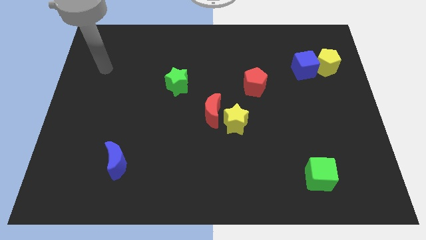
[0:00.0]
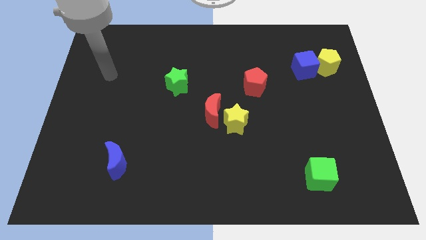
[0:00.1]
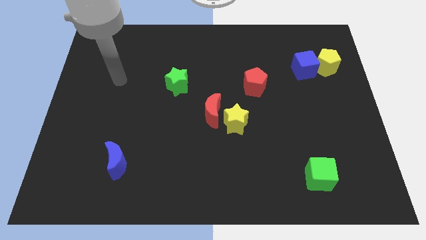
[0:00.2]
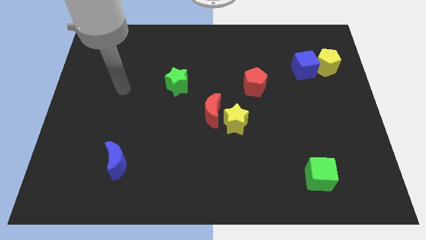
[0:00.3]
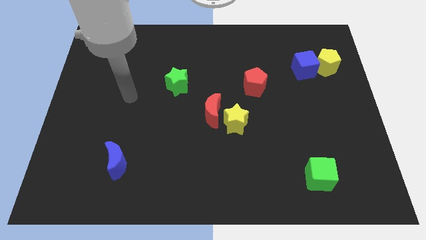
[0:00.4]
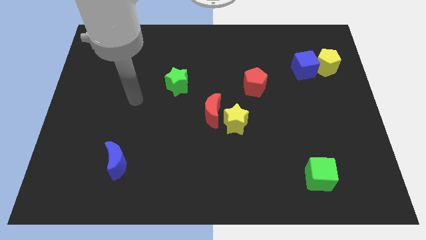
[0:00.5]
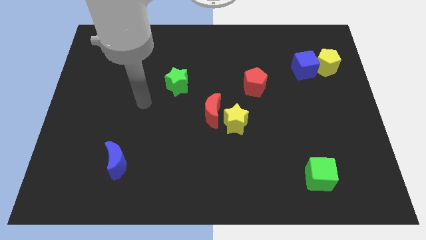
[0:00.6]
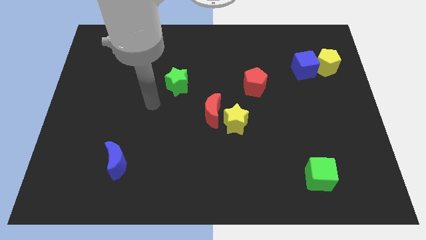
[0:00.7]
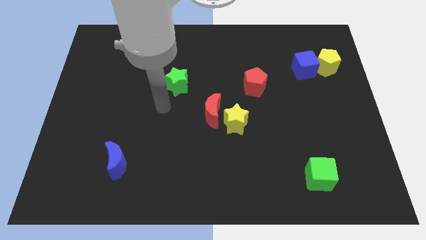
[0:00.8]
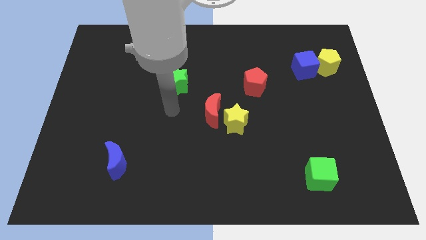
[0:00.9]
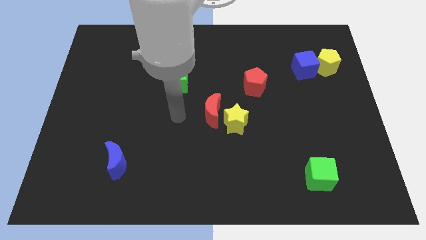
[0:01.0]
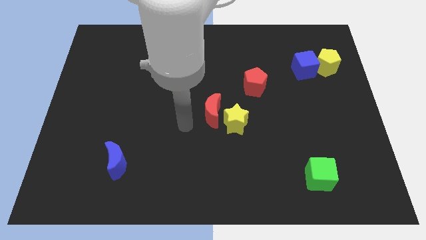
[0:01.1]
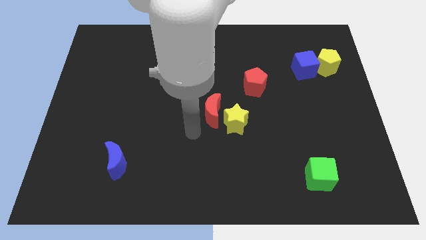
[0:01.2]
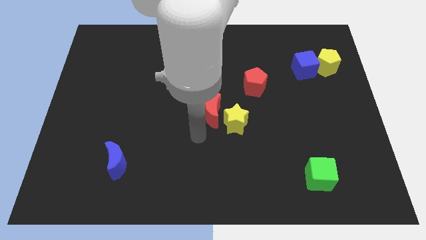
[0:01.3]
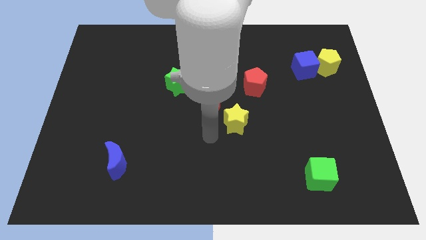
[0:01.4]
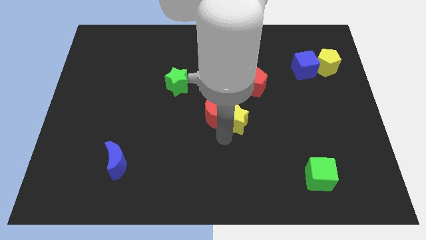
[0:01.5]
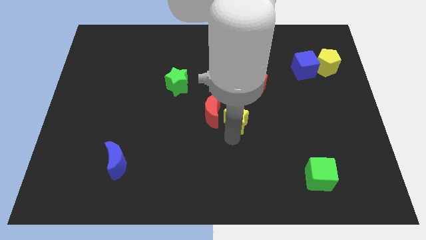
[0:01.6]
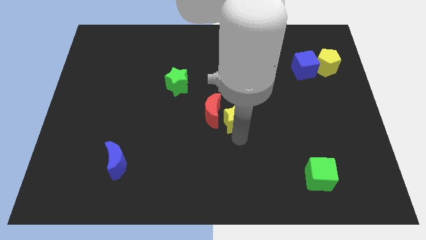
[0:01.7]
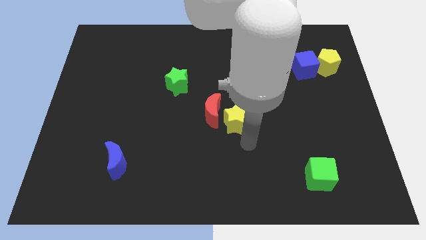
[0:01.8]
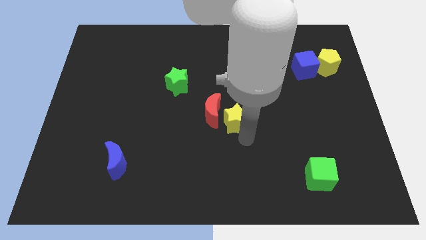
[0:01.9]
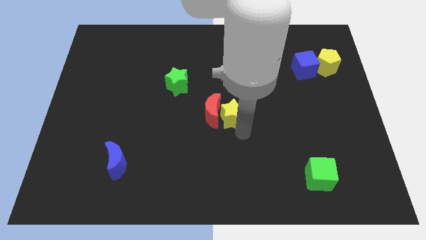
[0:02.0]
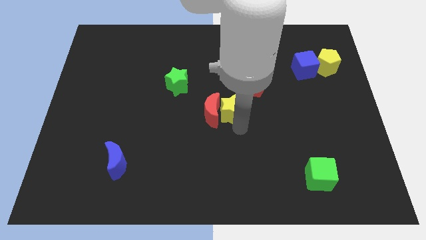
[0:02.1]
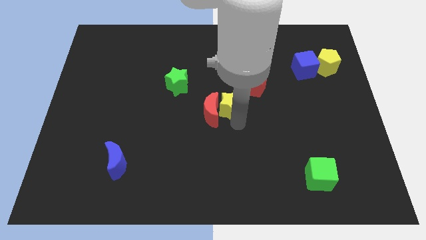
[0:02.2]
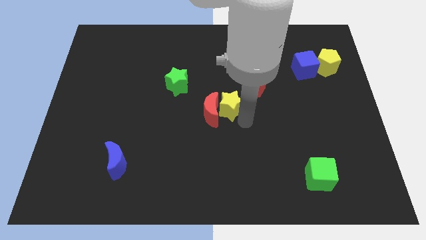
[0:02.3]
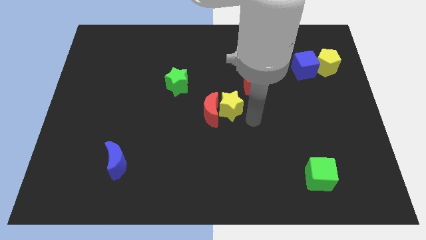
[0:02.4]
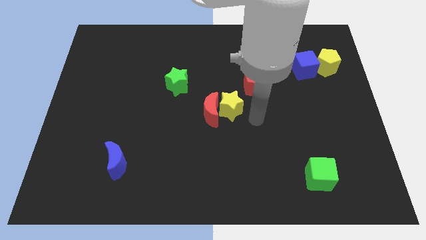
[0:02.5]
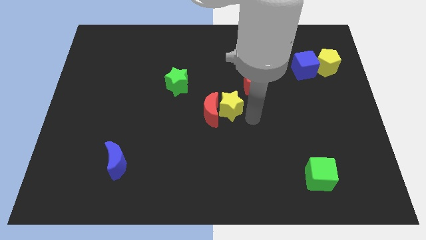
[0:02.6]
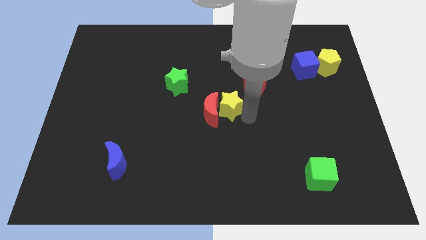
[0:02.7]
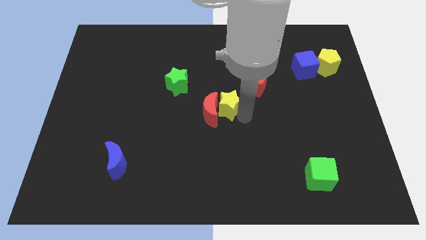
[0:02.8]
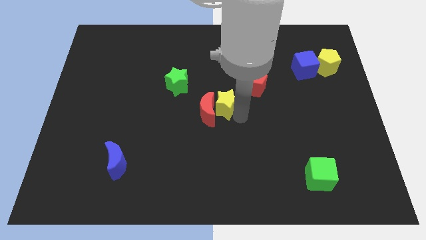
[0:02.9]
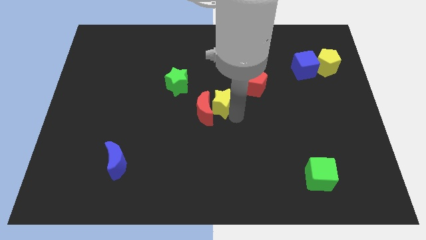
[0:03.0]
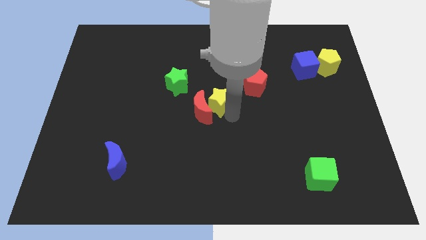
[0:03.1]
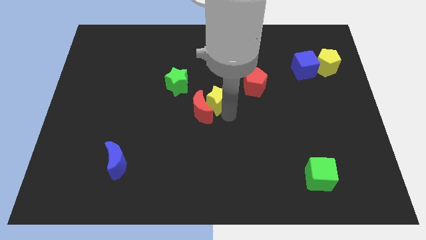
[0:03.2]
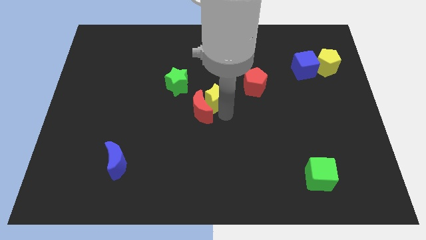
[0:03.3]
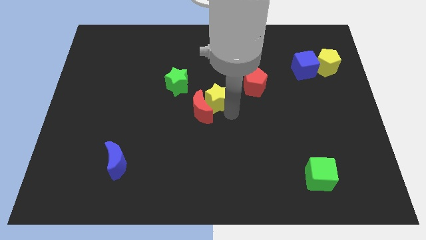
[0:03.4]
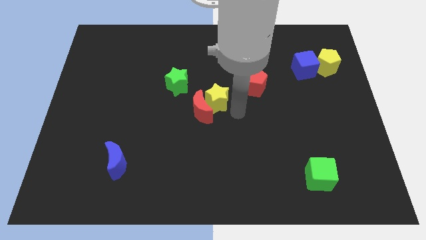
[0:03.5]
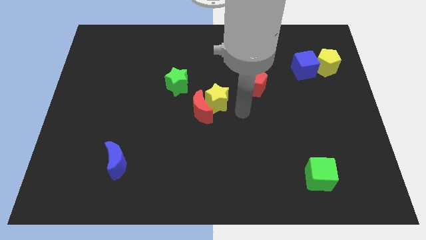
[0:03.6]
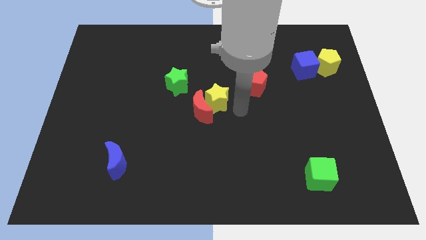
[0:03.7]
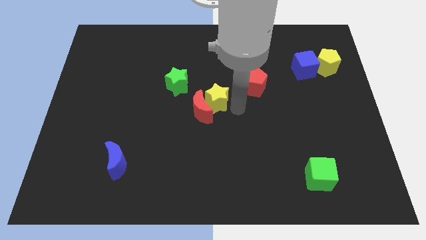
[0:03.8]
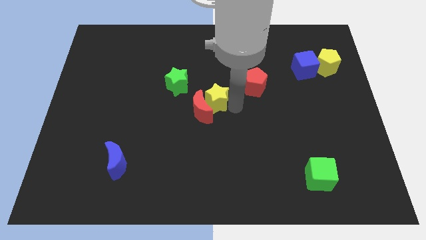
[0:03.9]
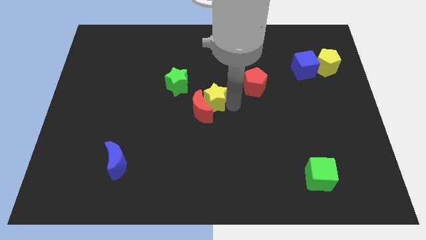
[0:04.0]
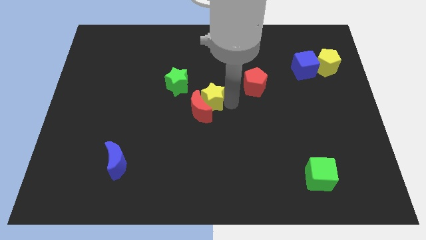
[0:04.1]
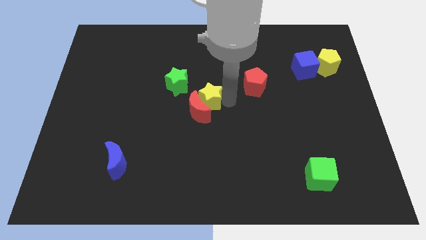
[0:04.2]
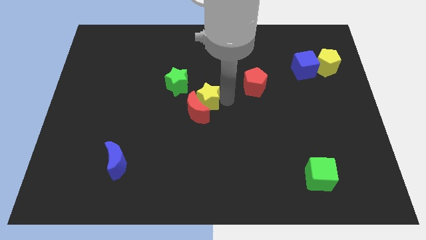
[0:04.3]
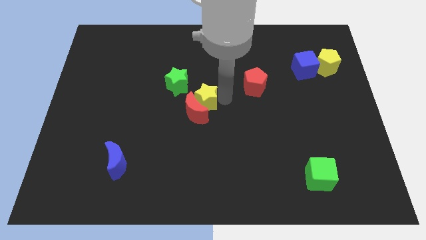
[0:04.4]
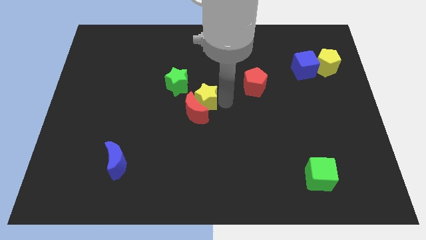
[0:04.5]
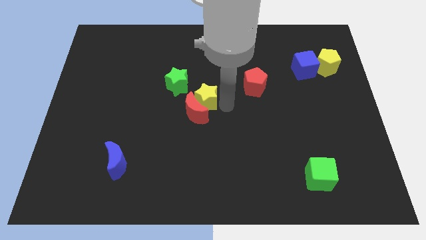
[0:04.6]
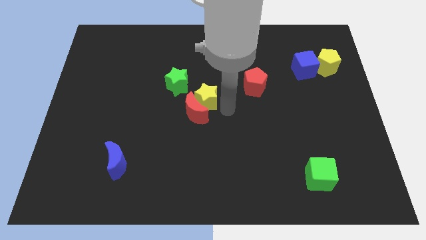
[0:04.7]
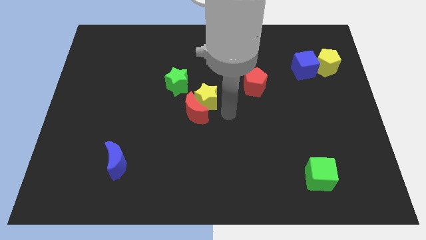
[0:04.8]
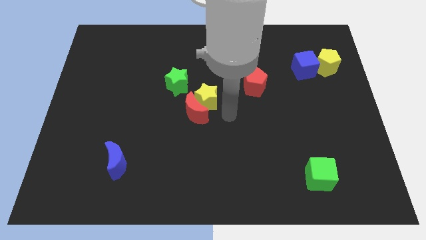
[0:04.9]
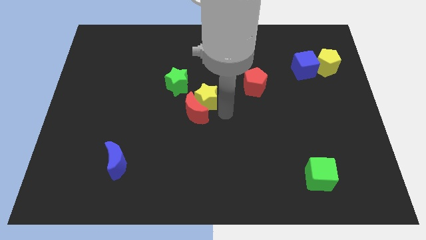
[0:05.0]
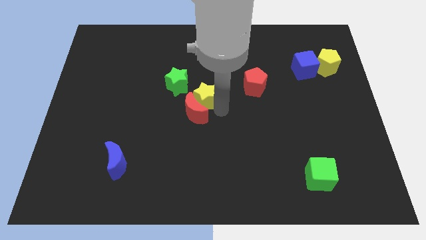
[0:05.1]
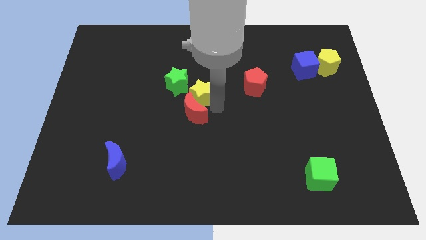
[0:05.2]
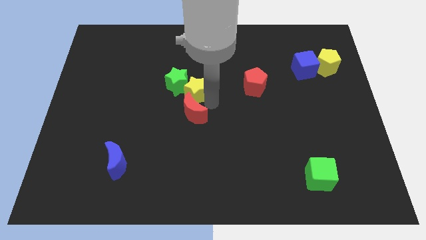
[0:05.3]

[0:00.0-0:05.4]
push the yellow star towards the green star

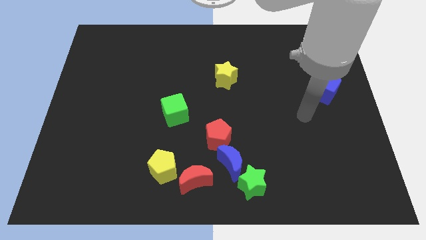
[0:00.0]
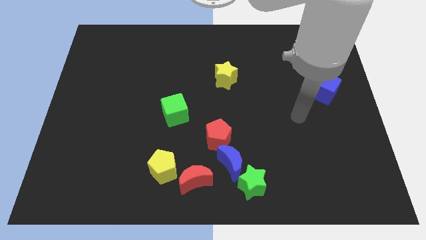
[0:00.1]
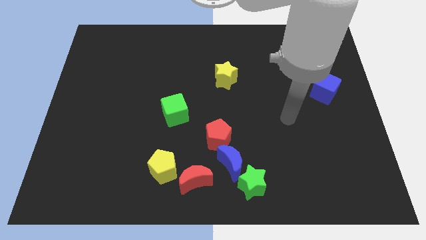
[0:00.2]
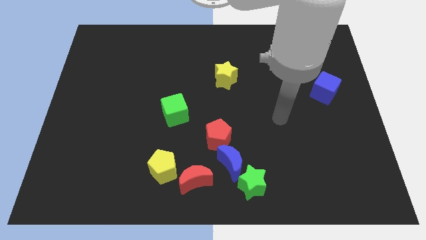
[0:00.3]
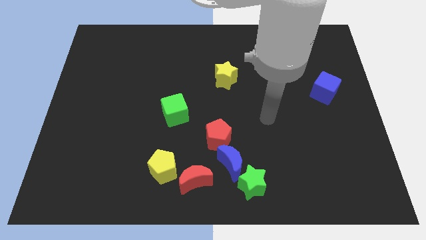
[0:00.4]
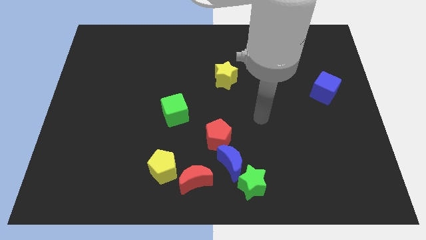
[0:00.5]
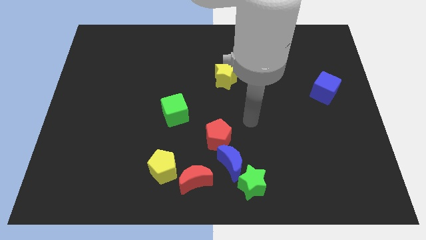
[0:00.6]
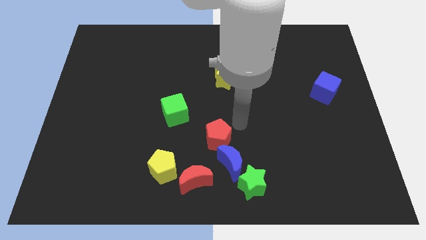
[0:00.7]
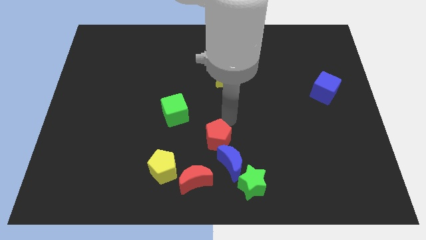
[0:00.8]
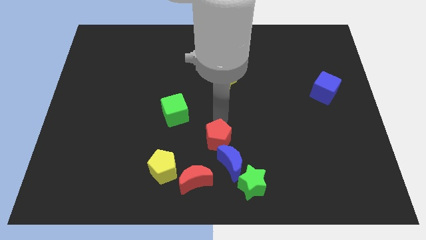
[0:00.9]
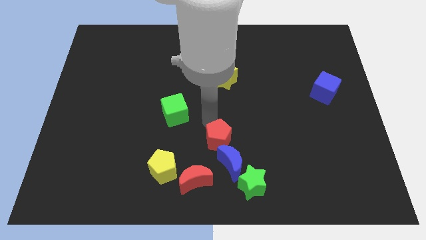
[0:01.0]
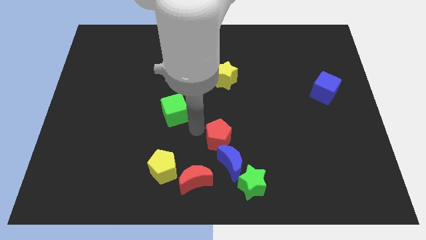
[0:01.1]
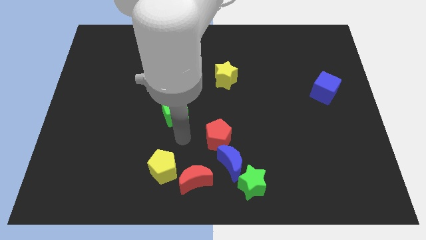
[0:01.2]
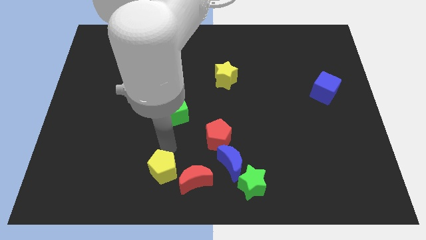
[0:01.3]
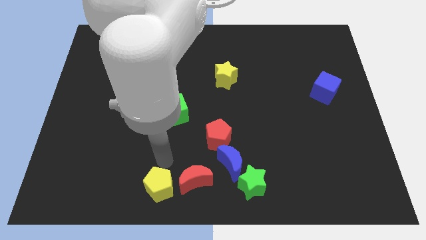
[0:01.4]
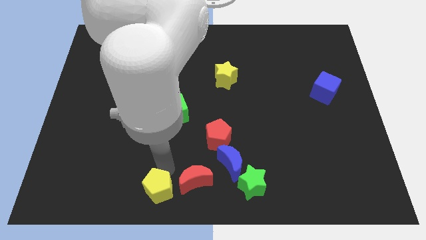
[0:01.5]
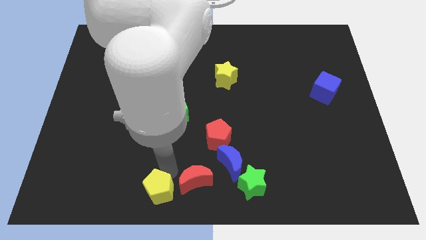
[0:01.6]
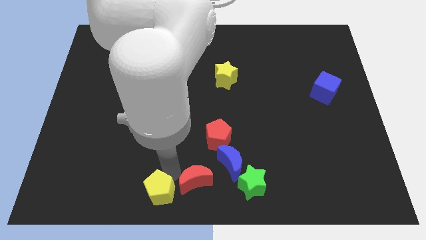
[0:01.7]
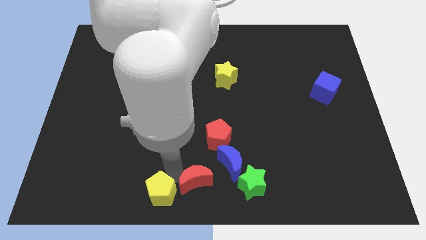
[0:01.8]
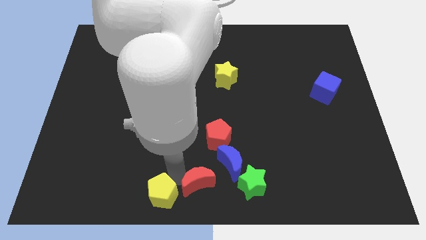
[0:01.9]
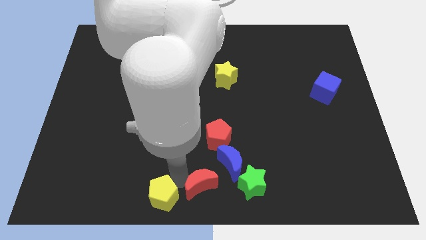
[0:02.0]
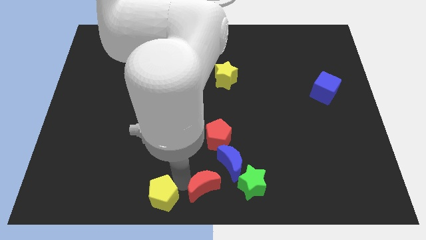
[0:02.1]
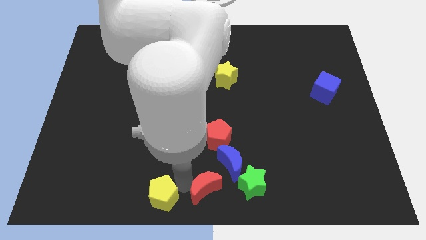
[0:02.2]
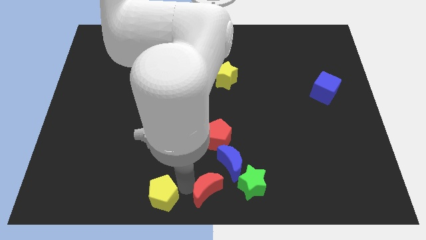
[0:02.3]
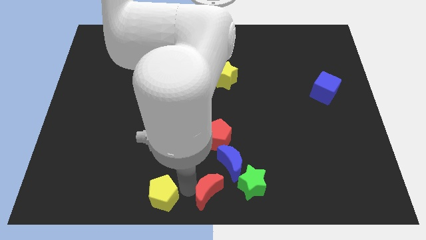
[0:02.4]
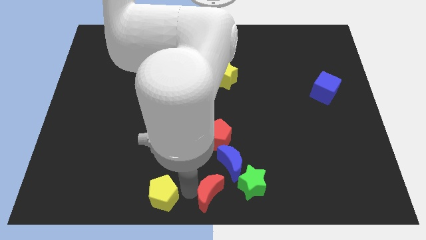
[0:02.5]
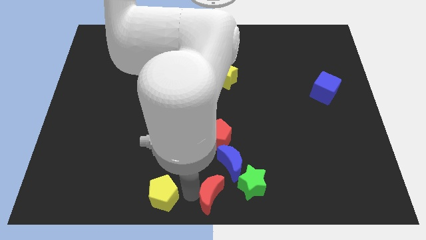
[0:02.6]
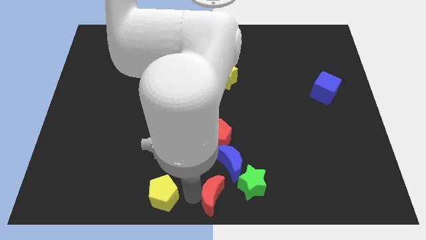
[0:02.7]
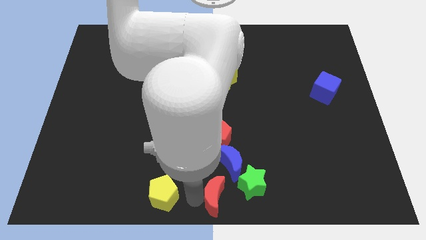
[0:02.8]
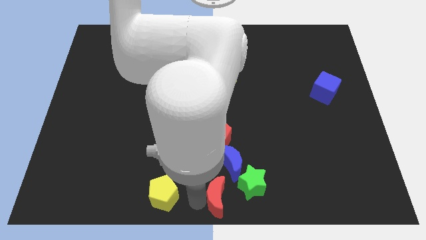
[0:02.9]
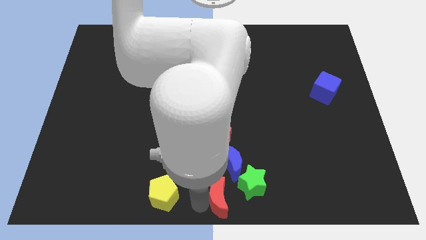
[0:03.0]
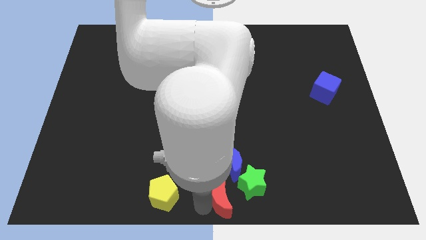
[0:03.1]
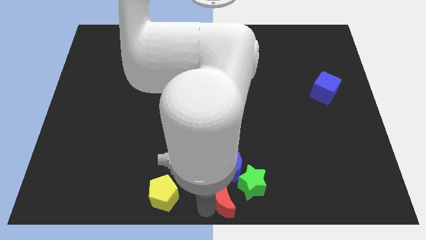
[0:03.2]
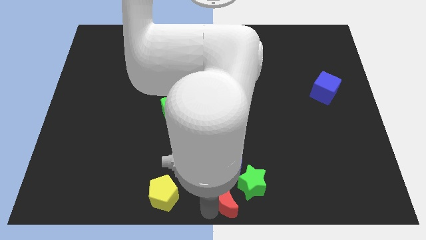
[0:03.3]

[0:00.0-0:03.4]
put the red moon to the green star
